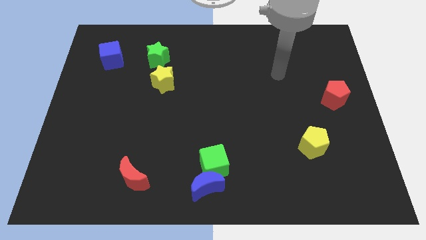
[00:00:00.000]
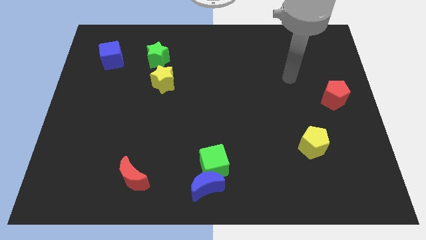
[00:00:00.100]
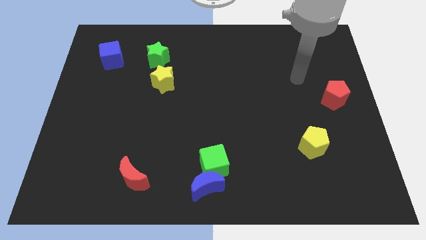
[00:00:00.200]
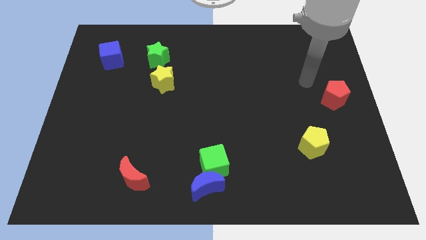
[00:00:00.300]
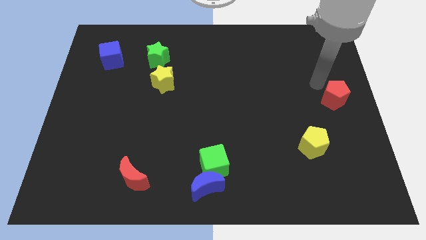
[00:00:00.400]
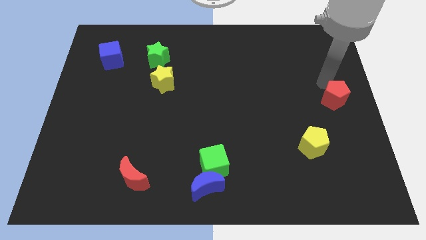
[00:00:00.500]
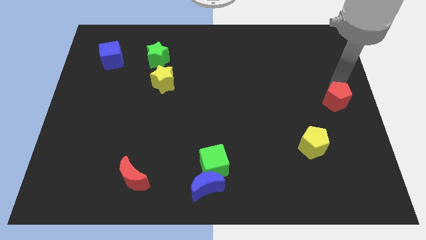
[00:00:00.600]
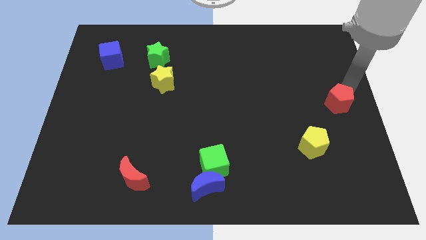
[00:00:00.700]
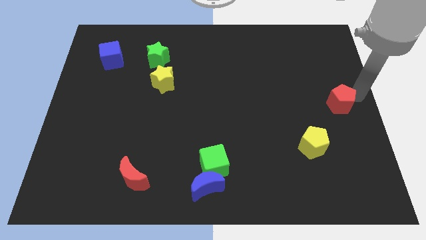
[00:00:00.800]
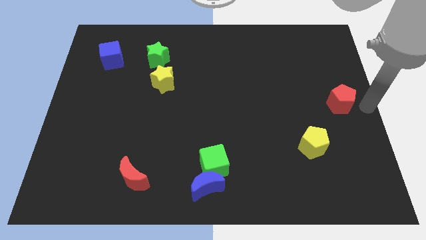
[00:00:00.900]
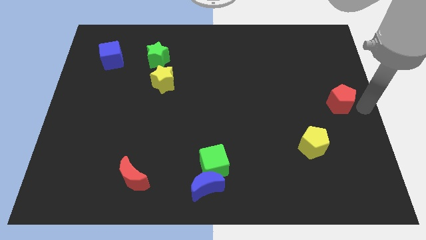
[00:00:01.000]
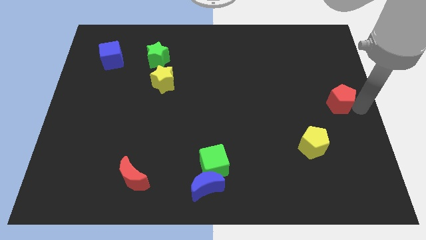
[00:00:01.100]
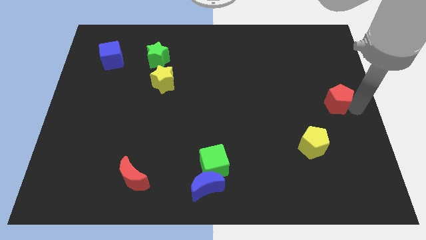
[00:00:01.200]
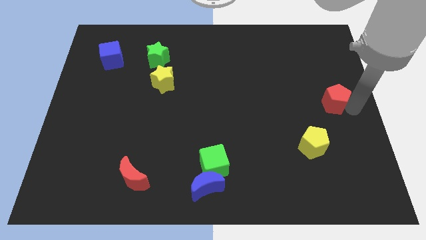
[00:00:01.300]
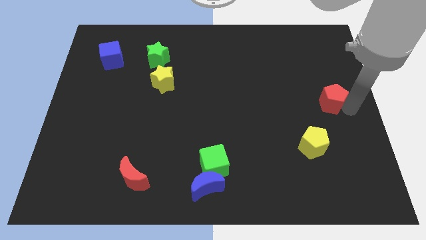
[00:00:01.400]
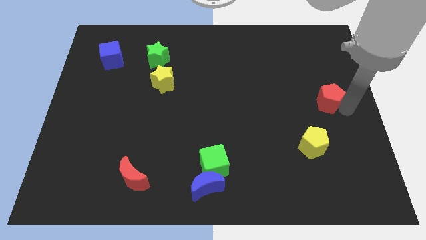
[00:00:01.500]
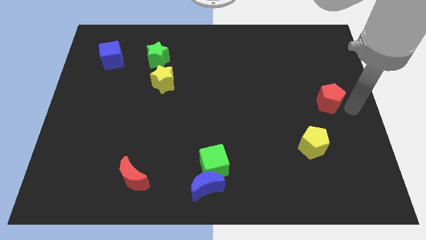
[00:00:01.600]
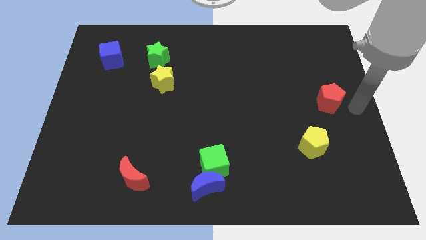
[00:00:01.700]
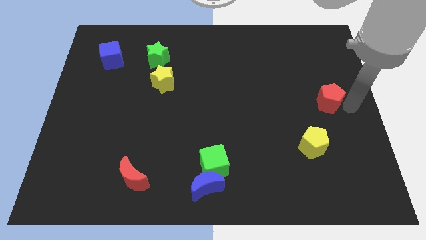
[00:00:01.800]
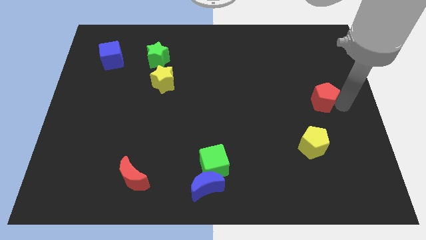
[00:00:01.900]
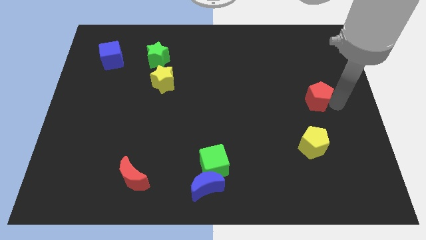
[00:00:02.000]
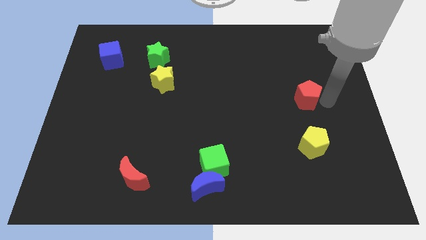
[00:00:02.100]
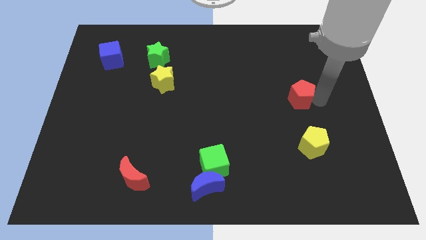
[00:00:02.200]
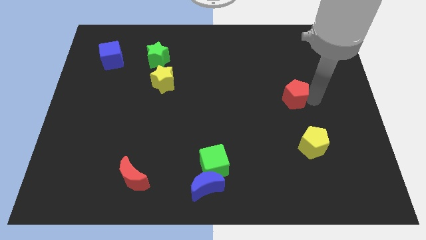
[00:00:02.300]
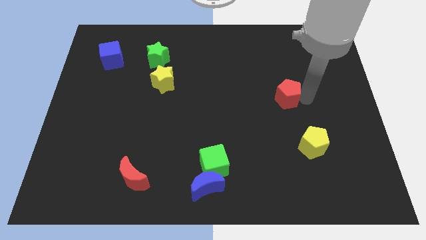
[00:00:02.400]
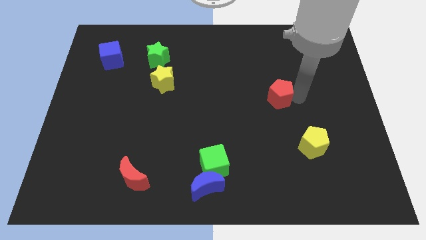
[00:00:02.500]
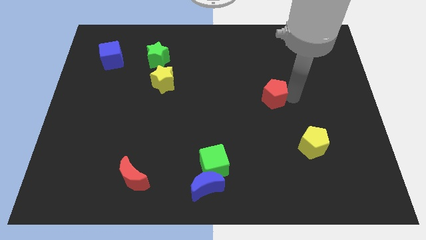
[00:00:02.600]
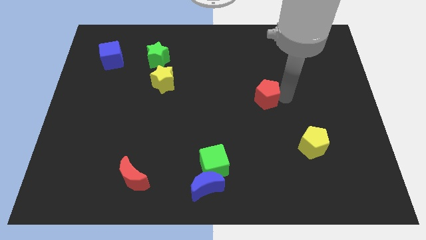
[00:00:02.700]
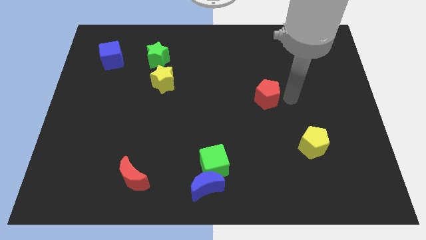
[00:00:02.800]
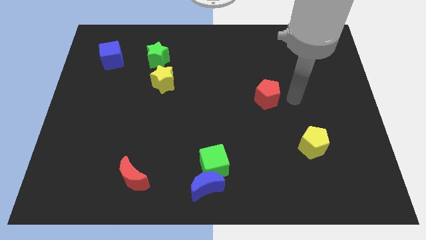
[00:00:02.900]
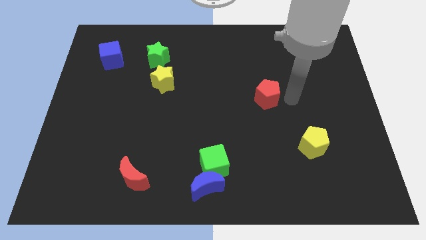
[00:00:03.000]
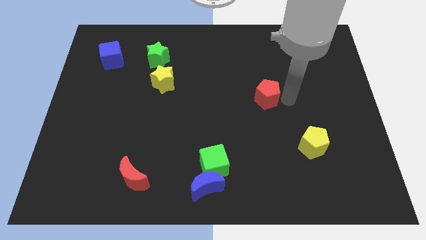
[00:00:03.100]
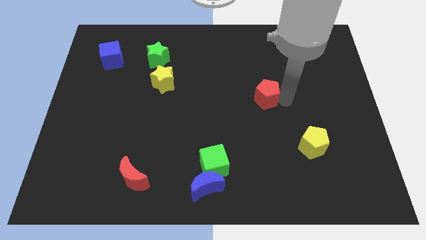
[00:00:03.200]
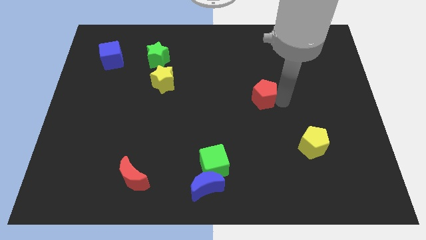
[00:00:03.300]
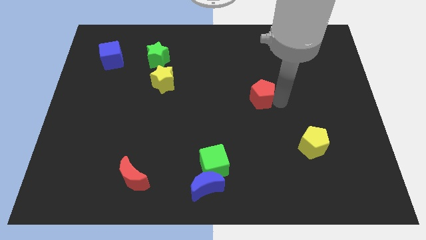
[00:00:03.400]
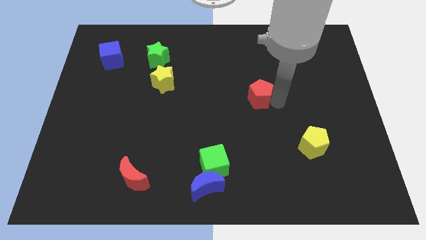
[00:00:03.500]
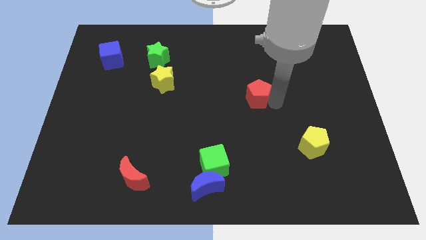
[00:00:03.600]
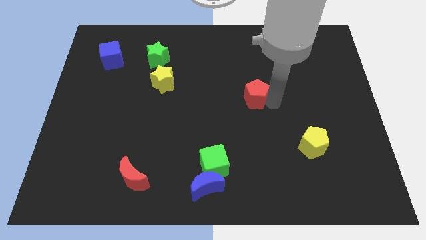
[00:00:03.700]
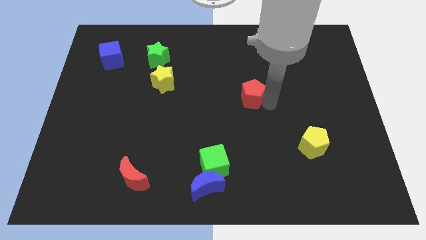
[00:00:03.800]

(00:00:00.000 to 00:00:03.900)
slide the red pentagon to the left

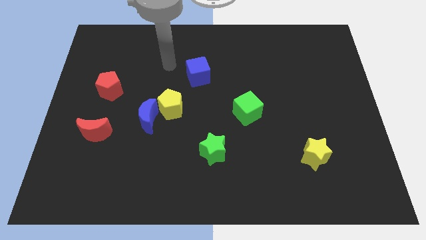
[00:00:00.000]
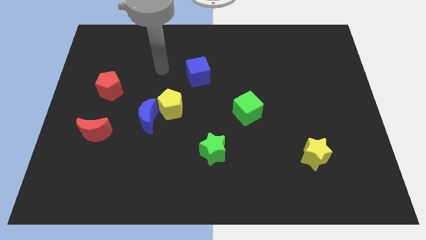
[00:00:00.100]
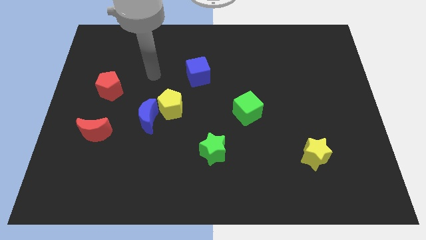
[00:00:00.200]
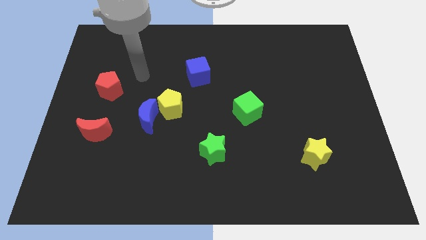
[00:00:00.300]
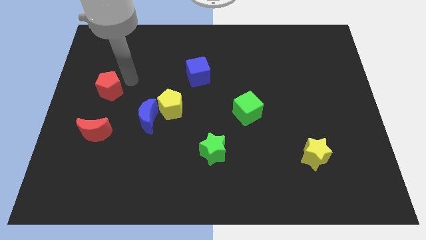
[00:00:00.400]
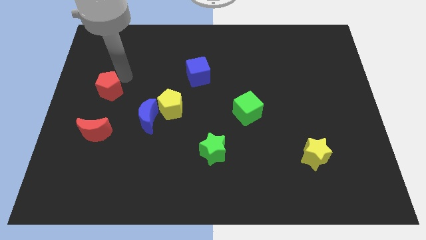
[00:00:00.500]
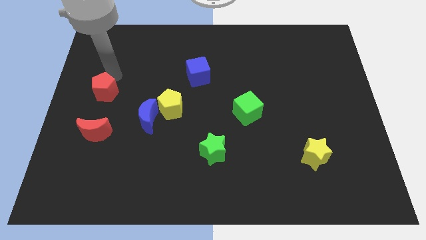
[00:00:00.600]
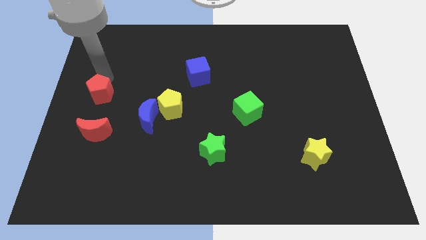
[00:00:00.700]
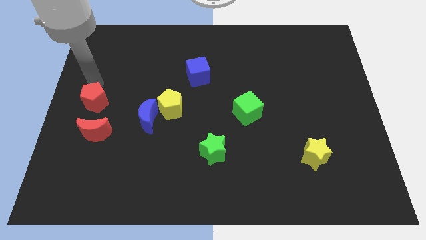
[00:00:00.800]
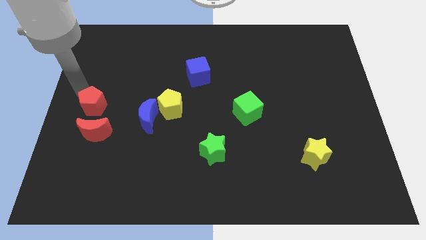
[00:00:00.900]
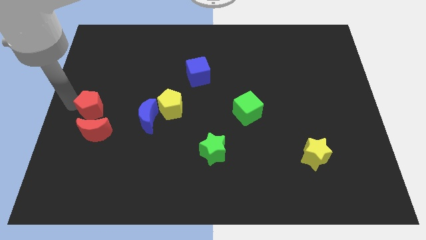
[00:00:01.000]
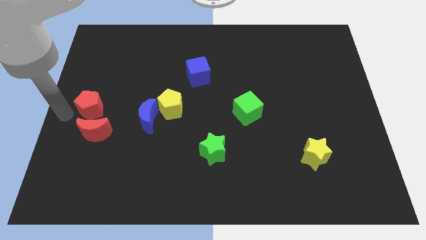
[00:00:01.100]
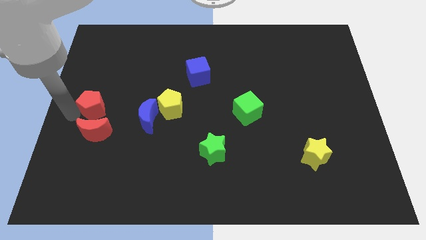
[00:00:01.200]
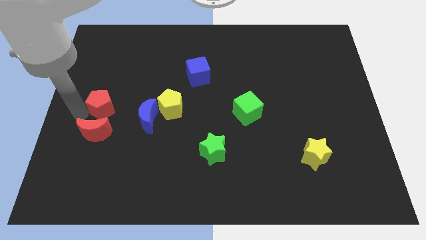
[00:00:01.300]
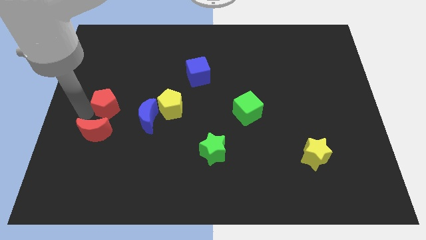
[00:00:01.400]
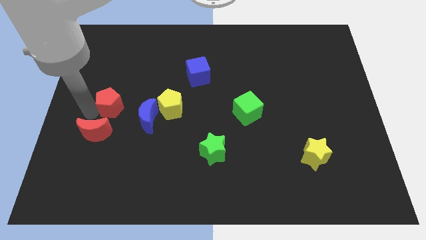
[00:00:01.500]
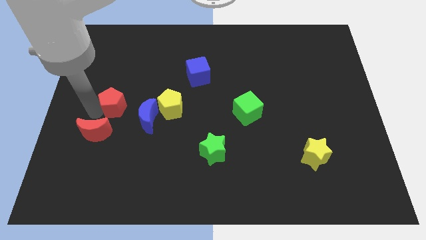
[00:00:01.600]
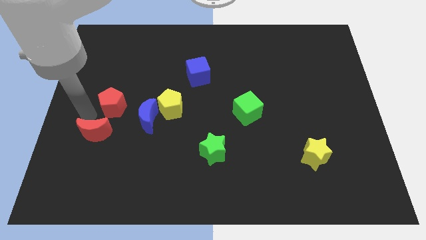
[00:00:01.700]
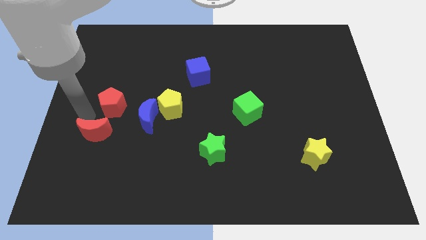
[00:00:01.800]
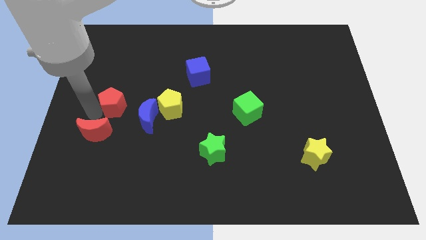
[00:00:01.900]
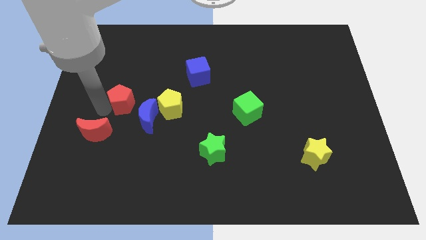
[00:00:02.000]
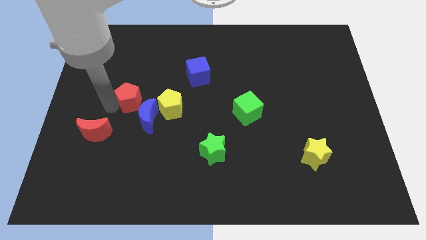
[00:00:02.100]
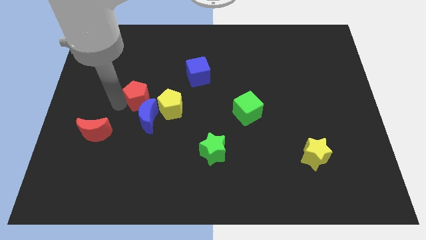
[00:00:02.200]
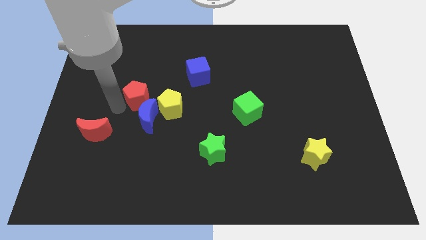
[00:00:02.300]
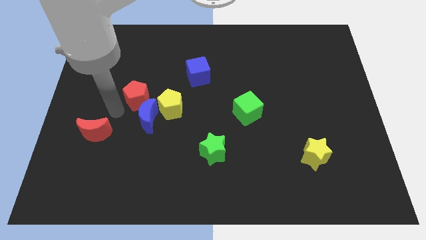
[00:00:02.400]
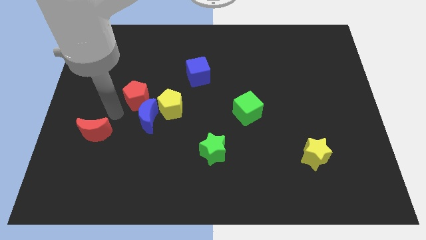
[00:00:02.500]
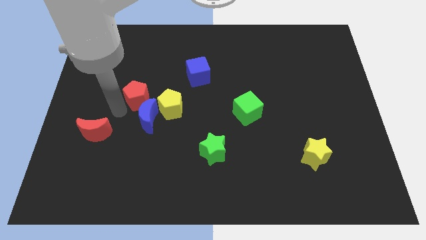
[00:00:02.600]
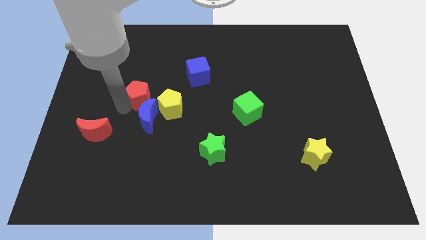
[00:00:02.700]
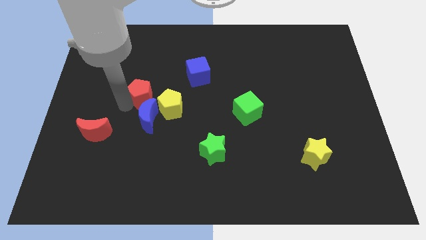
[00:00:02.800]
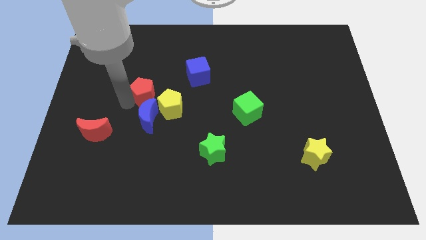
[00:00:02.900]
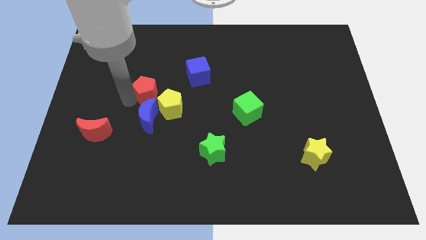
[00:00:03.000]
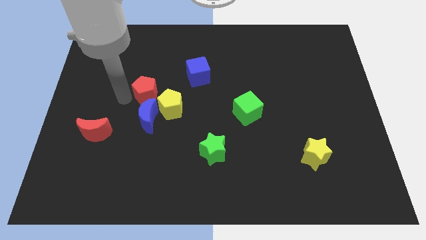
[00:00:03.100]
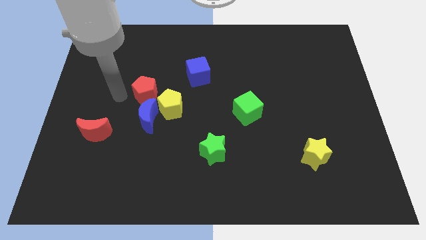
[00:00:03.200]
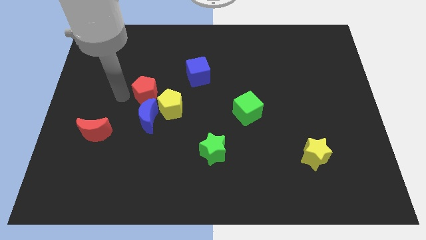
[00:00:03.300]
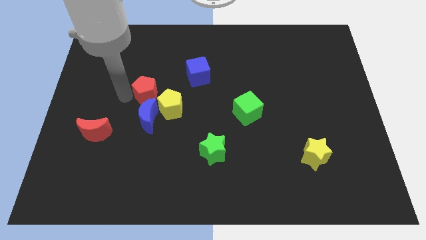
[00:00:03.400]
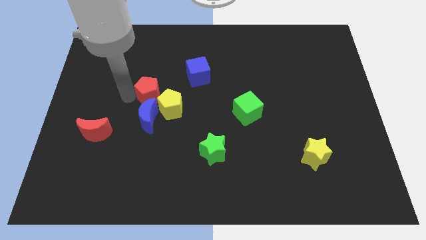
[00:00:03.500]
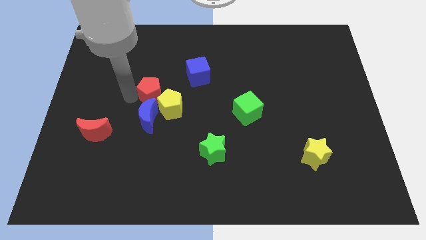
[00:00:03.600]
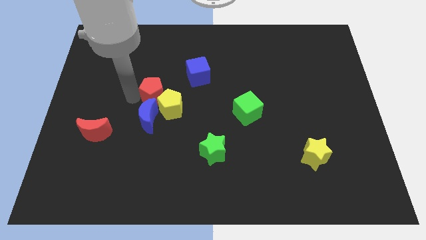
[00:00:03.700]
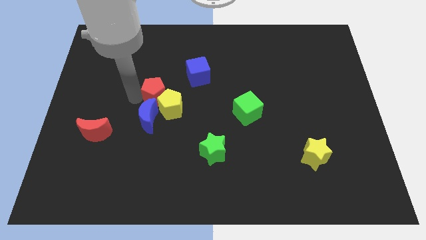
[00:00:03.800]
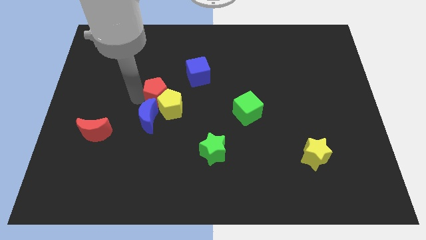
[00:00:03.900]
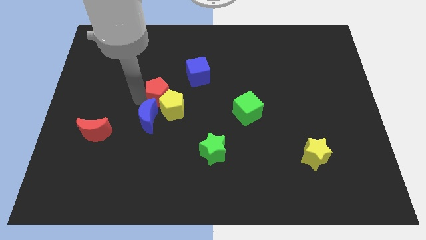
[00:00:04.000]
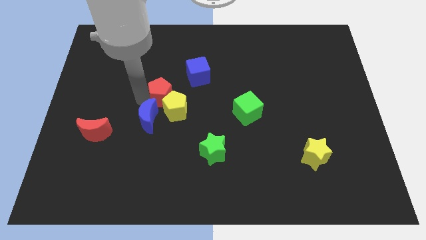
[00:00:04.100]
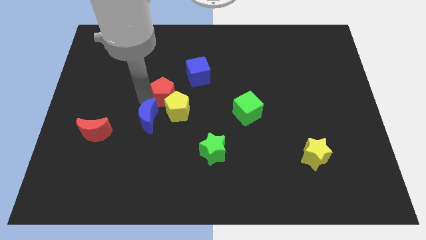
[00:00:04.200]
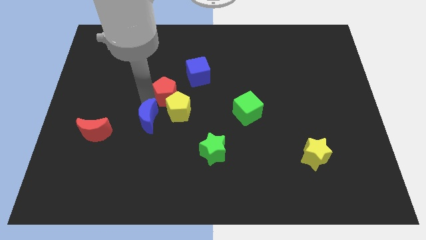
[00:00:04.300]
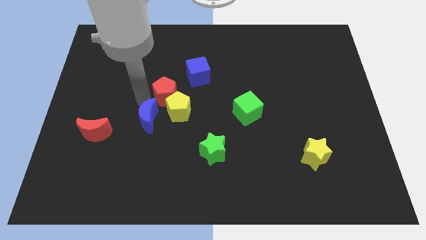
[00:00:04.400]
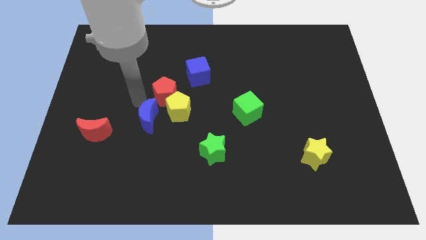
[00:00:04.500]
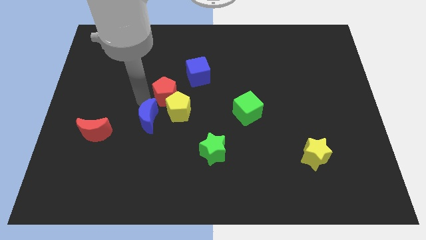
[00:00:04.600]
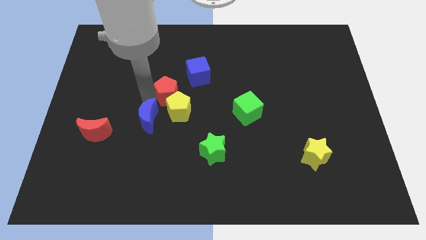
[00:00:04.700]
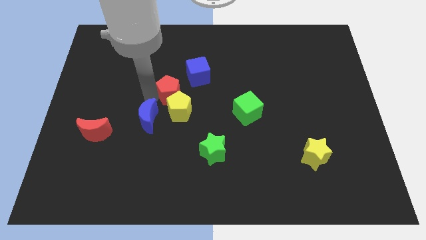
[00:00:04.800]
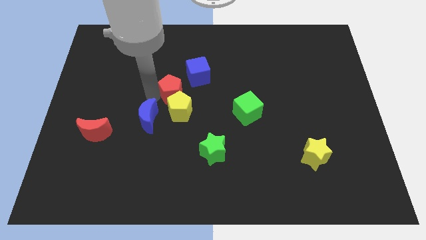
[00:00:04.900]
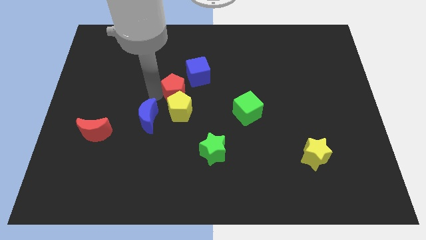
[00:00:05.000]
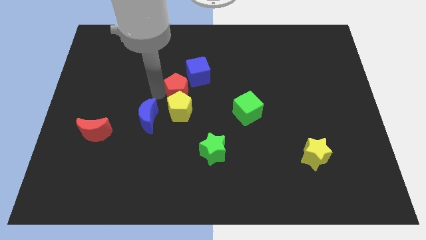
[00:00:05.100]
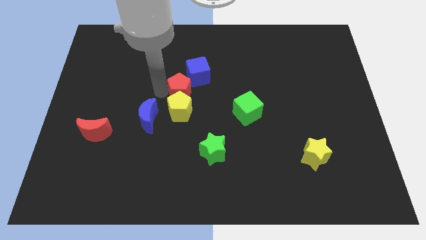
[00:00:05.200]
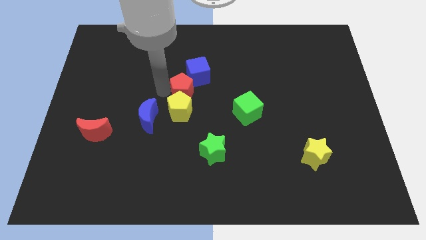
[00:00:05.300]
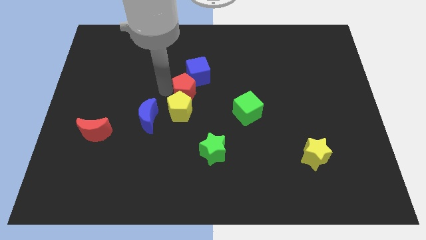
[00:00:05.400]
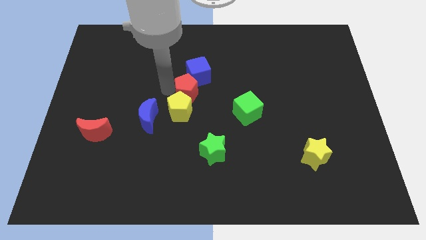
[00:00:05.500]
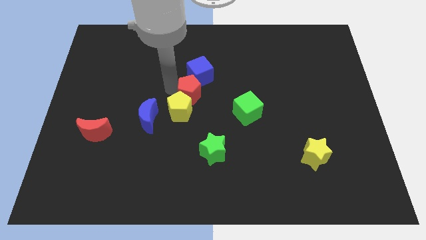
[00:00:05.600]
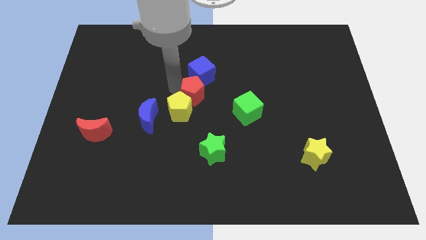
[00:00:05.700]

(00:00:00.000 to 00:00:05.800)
move the red pentagon to the right
